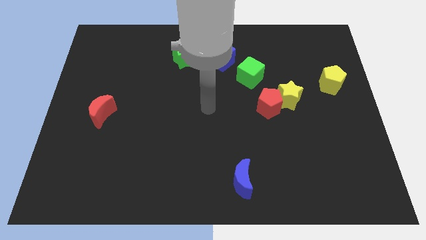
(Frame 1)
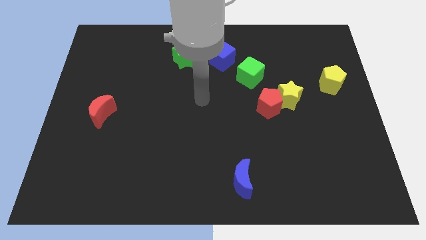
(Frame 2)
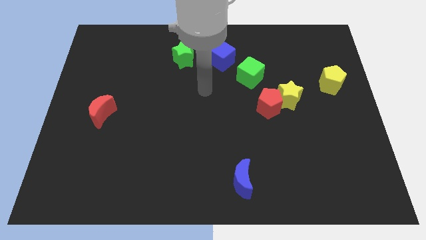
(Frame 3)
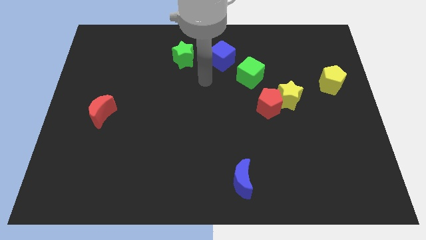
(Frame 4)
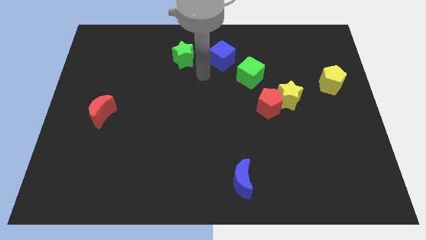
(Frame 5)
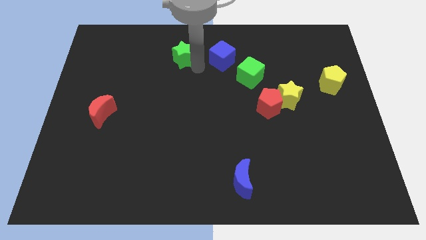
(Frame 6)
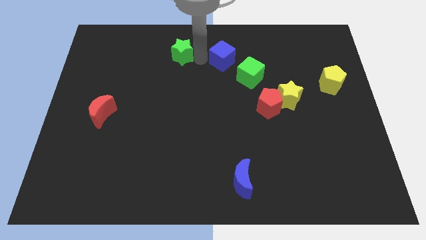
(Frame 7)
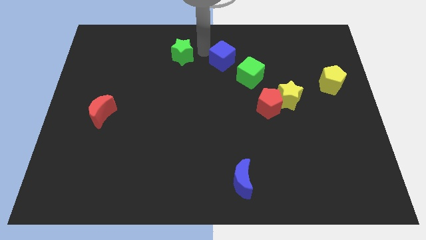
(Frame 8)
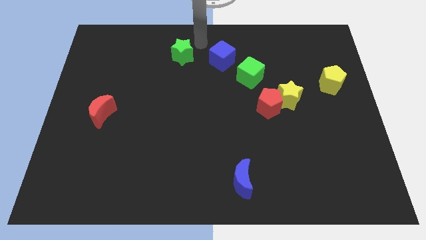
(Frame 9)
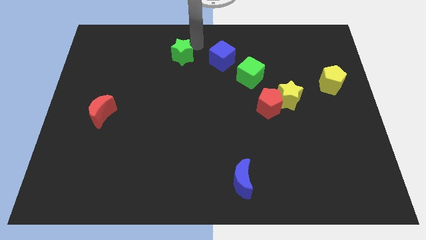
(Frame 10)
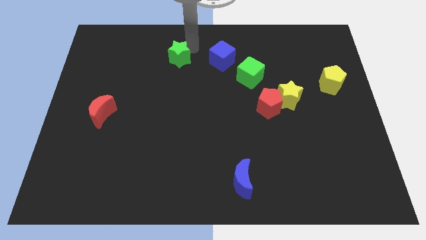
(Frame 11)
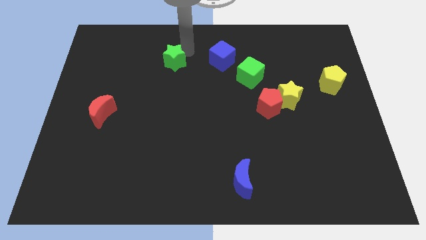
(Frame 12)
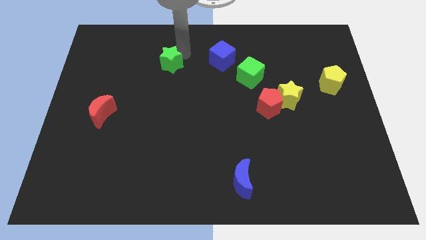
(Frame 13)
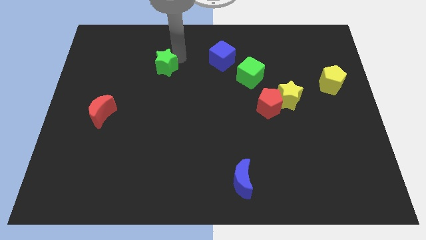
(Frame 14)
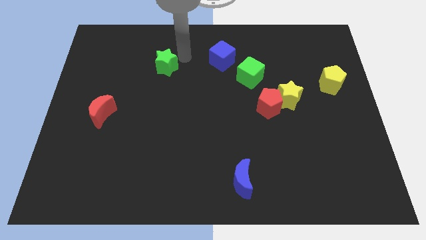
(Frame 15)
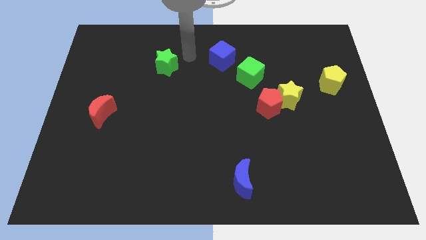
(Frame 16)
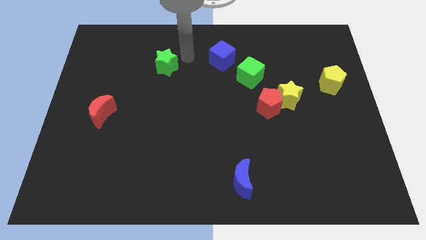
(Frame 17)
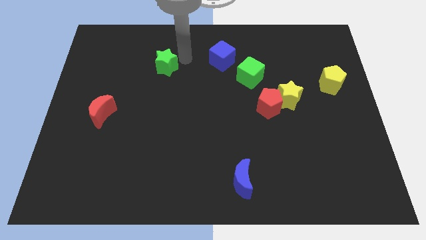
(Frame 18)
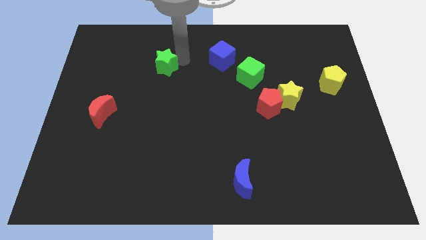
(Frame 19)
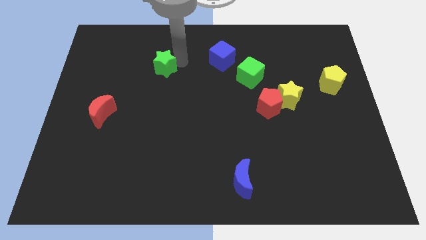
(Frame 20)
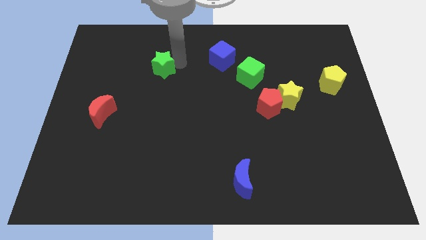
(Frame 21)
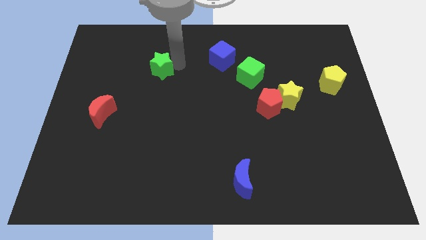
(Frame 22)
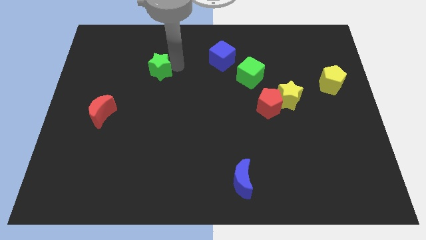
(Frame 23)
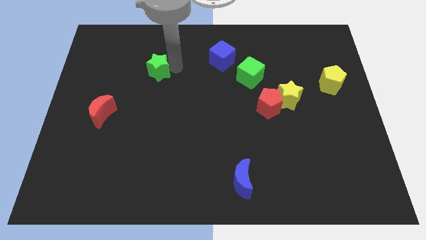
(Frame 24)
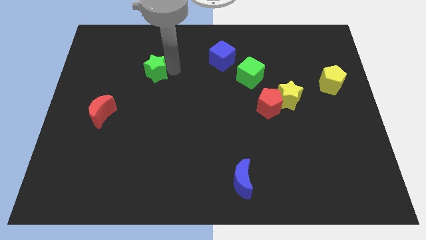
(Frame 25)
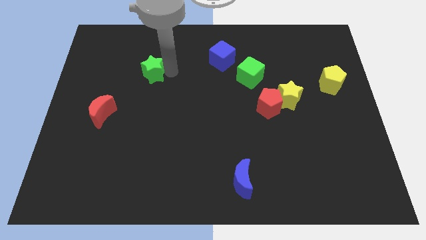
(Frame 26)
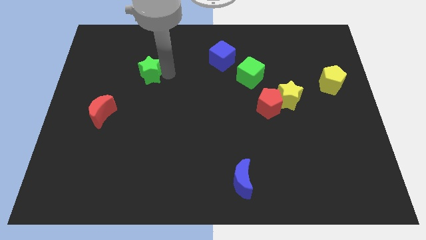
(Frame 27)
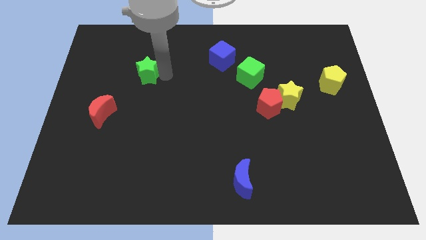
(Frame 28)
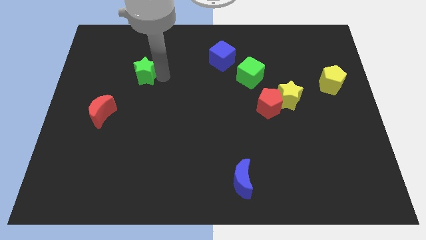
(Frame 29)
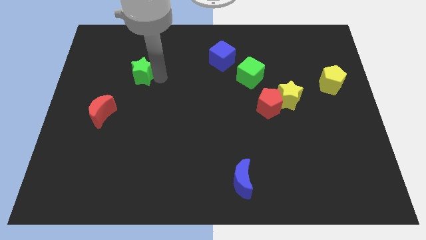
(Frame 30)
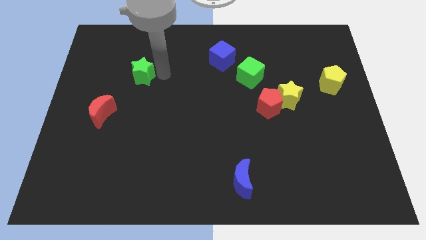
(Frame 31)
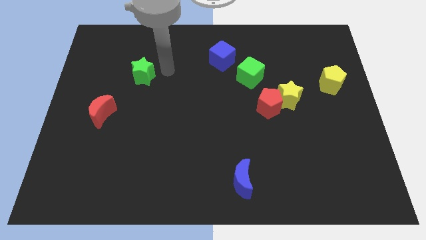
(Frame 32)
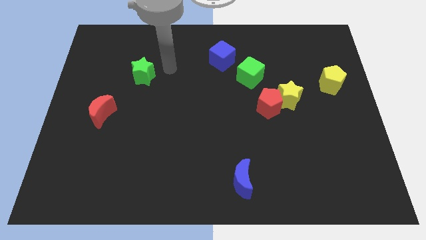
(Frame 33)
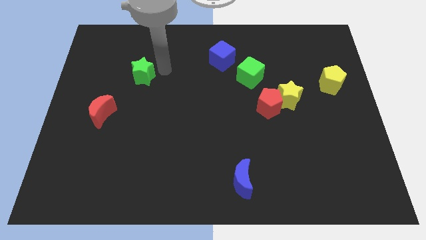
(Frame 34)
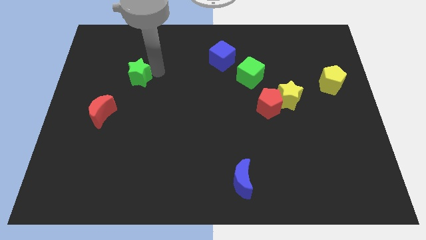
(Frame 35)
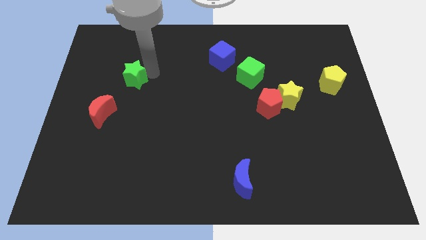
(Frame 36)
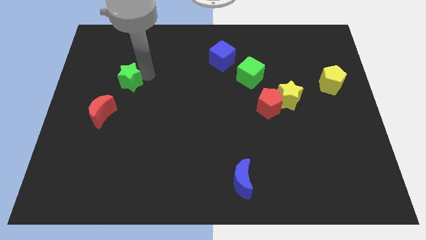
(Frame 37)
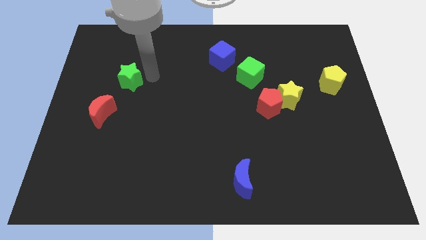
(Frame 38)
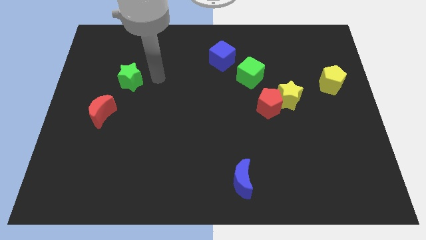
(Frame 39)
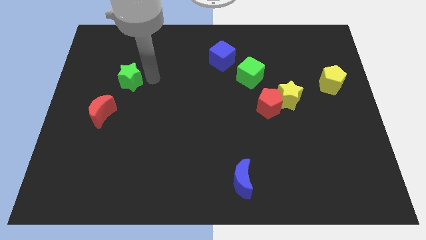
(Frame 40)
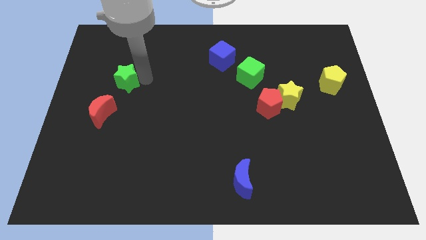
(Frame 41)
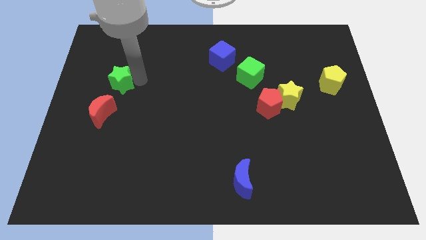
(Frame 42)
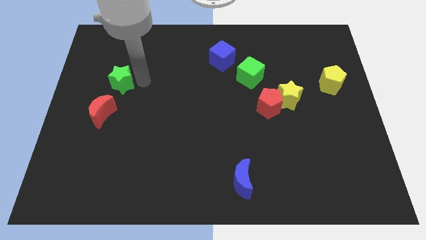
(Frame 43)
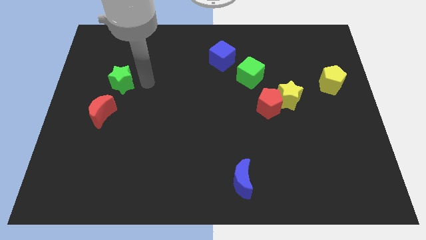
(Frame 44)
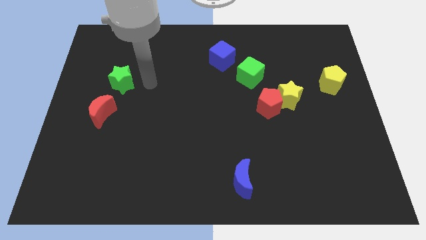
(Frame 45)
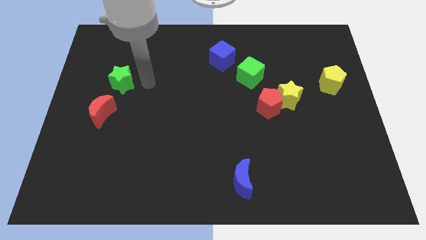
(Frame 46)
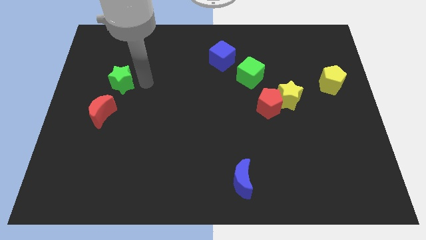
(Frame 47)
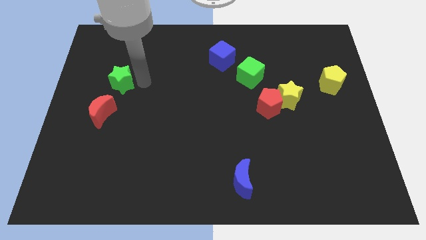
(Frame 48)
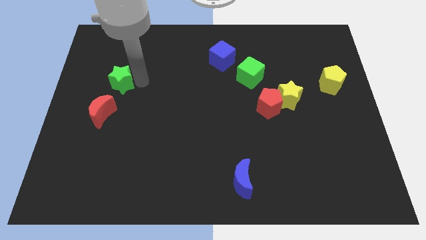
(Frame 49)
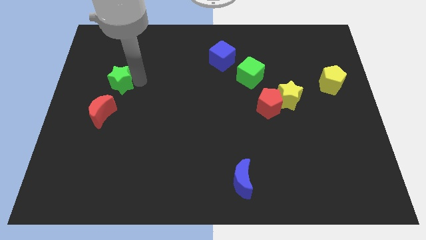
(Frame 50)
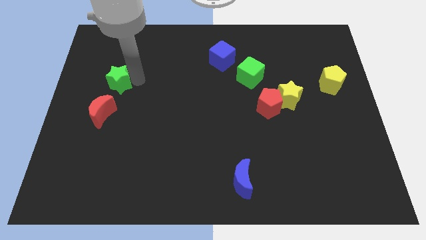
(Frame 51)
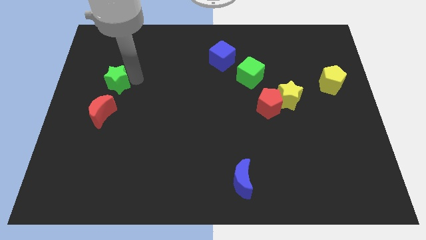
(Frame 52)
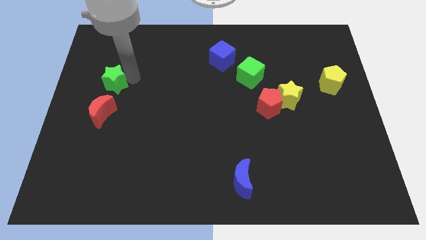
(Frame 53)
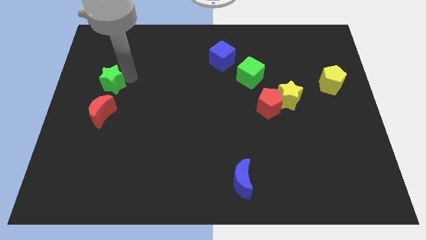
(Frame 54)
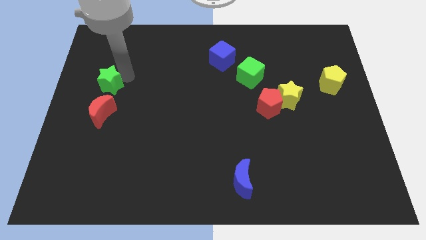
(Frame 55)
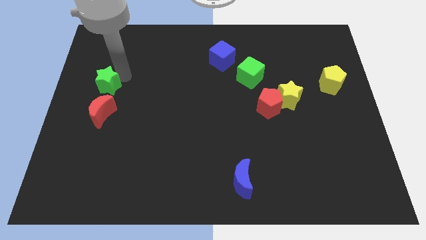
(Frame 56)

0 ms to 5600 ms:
move the green star to the left side of the board

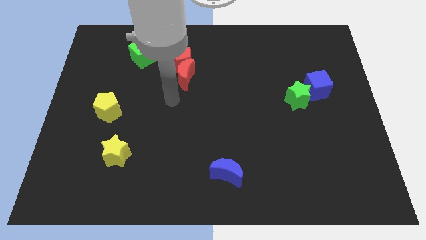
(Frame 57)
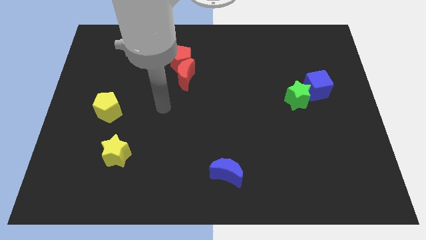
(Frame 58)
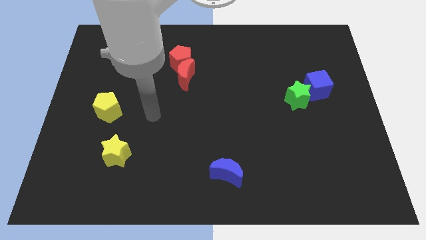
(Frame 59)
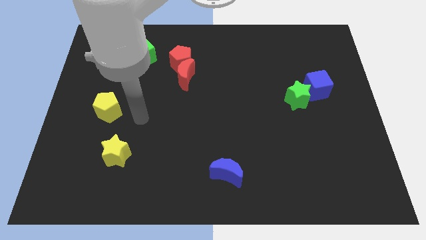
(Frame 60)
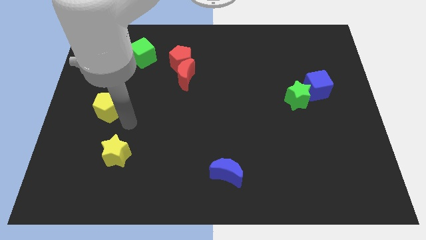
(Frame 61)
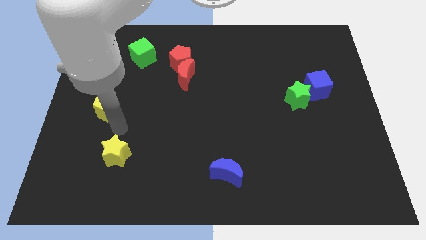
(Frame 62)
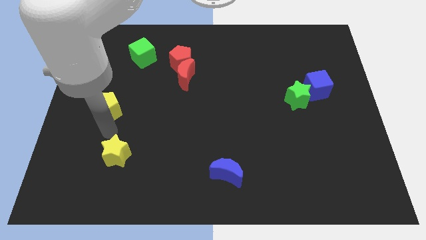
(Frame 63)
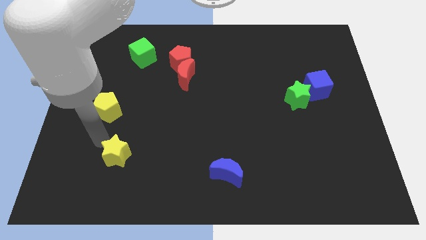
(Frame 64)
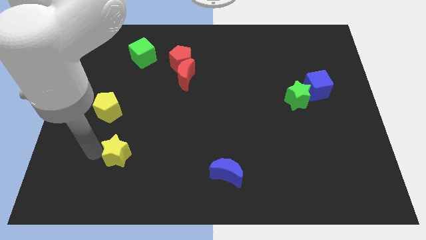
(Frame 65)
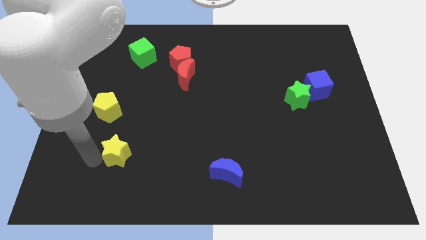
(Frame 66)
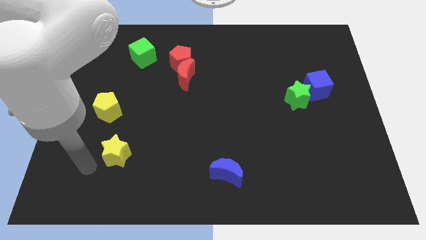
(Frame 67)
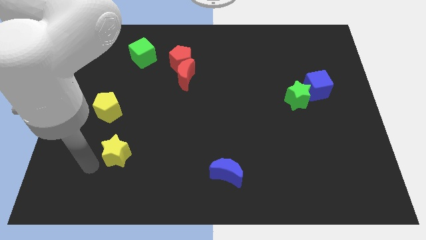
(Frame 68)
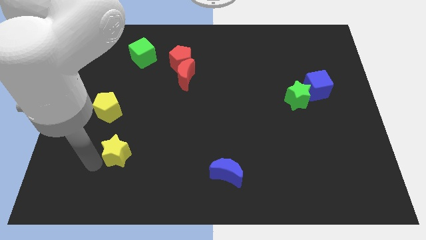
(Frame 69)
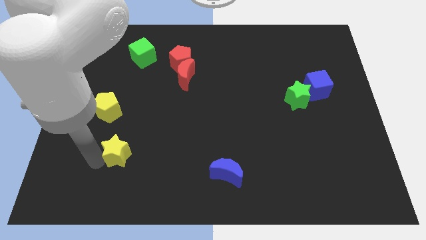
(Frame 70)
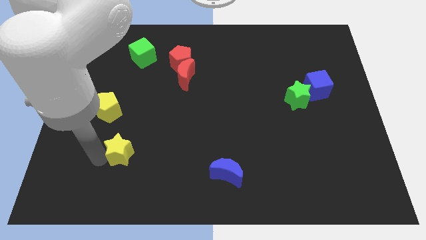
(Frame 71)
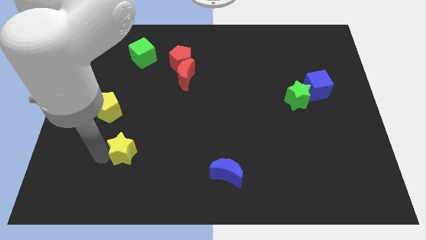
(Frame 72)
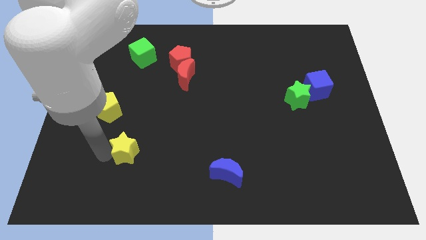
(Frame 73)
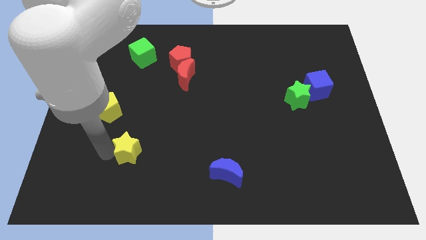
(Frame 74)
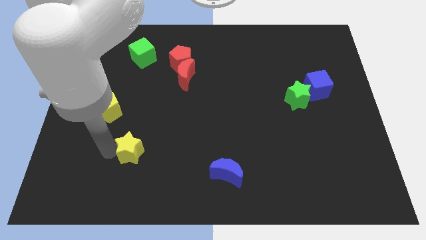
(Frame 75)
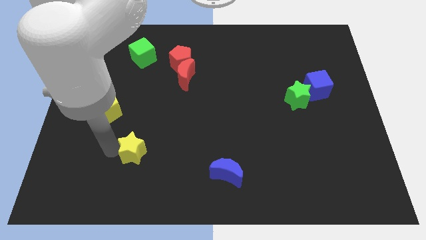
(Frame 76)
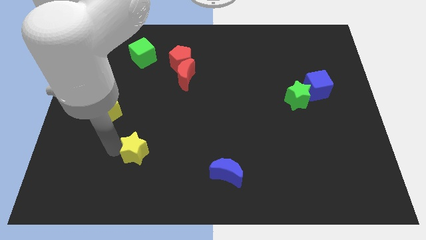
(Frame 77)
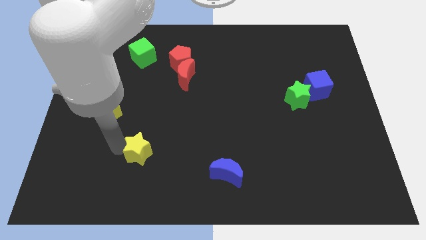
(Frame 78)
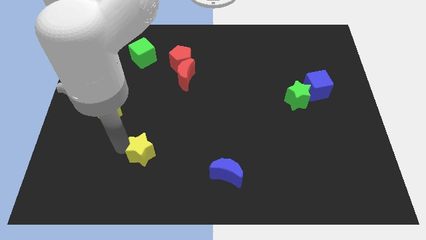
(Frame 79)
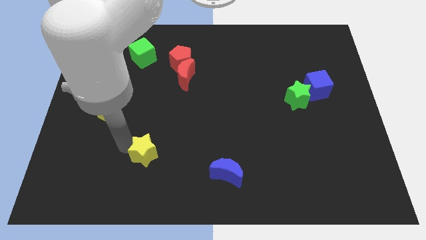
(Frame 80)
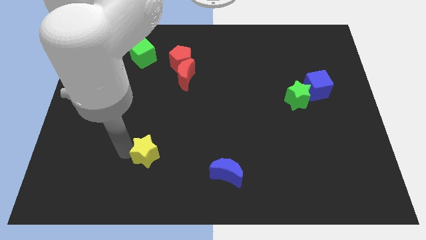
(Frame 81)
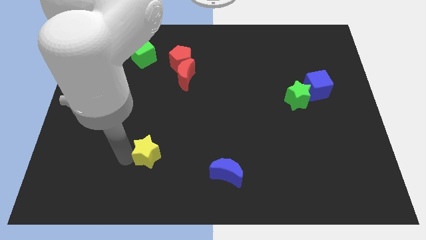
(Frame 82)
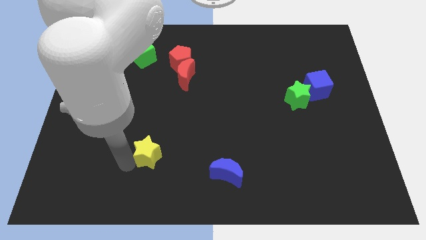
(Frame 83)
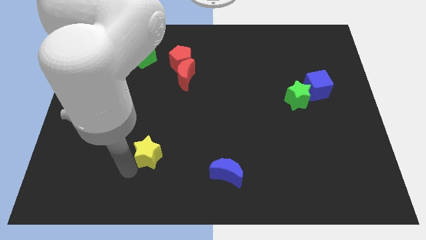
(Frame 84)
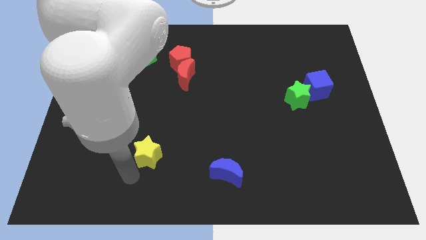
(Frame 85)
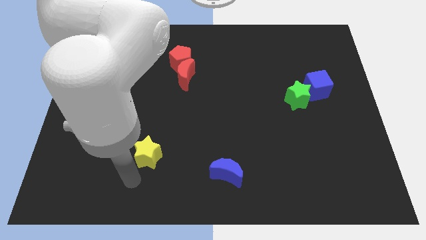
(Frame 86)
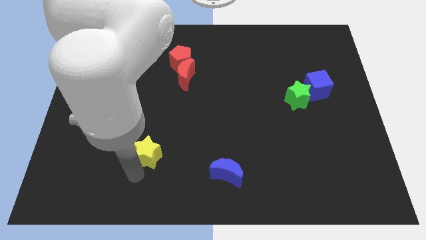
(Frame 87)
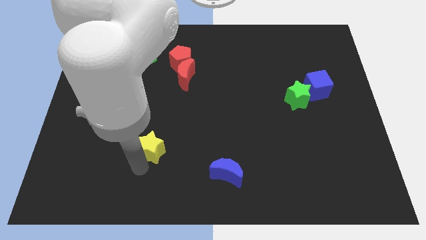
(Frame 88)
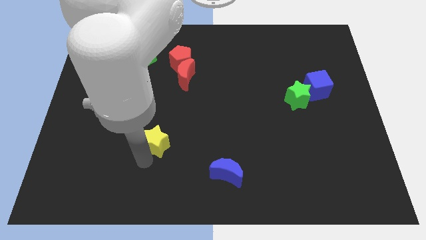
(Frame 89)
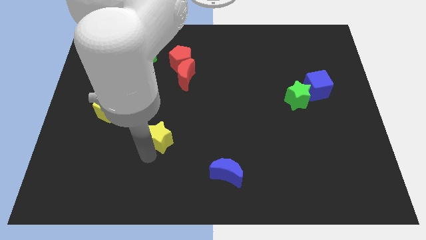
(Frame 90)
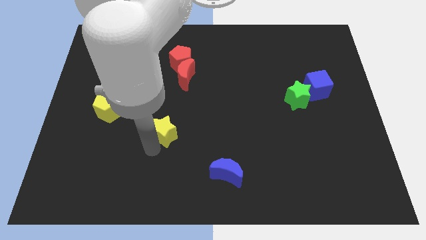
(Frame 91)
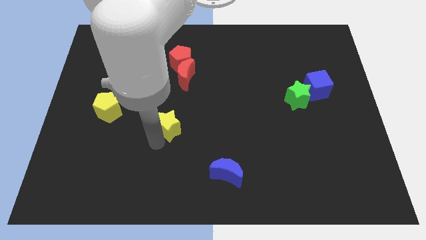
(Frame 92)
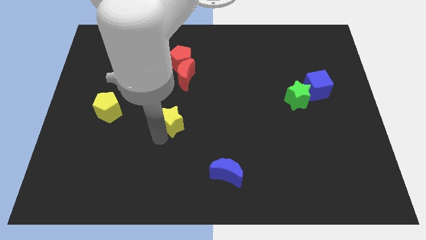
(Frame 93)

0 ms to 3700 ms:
push the yellow star to the center of the board
